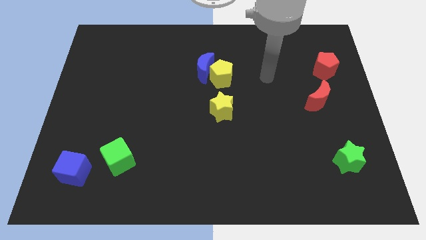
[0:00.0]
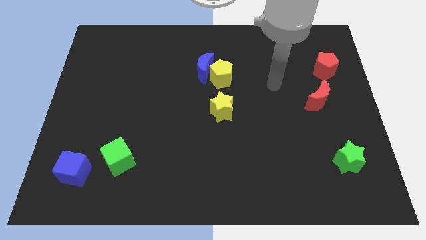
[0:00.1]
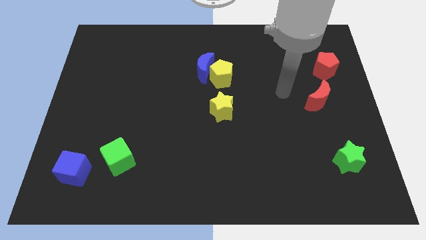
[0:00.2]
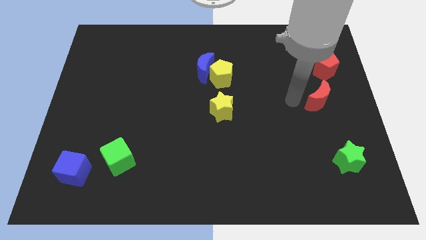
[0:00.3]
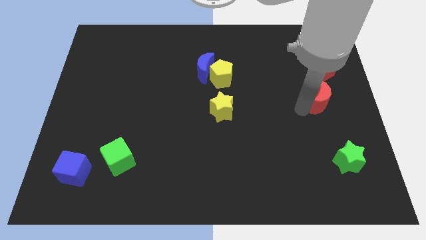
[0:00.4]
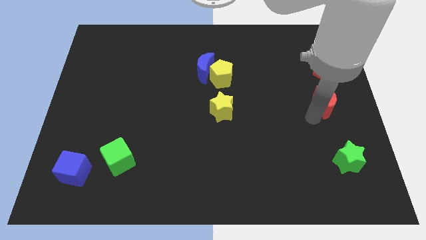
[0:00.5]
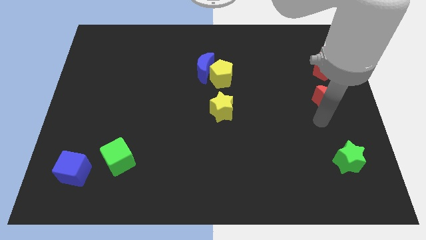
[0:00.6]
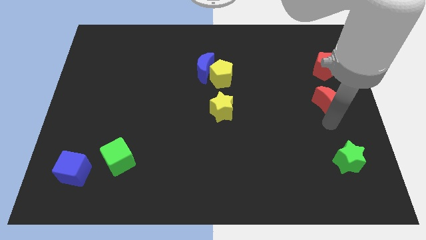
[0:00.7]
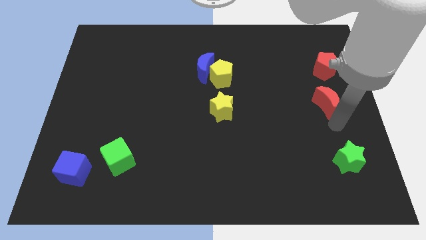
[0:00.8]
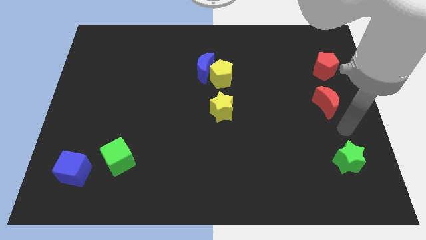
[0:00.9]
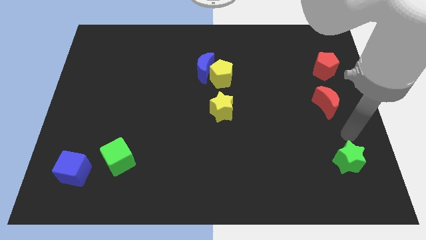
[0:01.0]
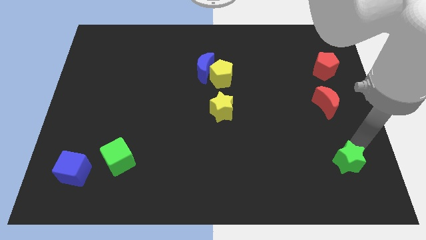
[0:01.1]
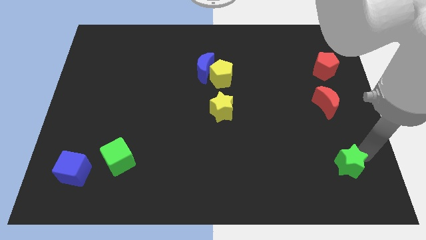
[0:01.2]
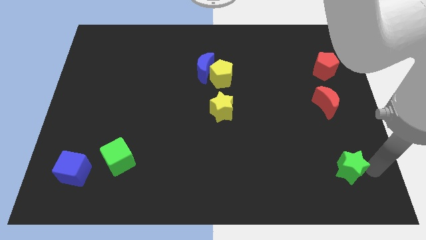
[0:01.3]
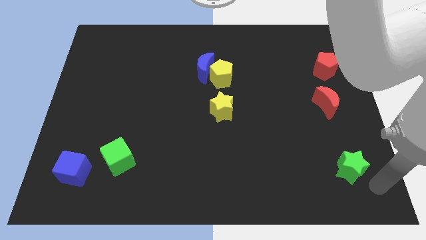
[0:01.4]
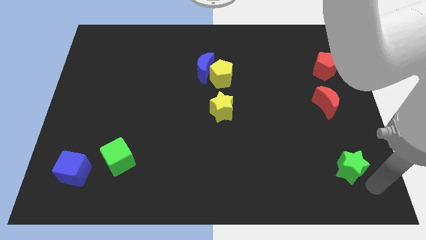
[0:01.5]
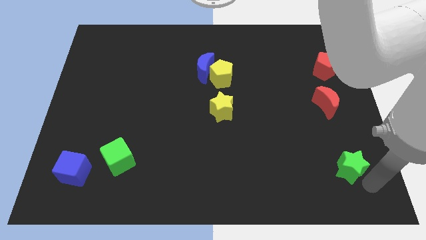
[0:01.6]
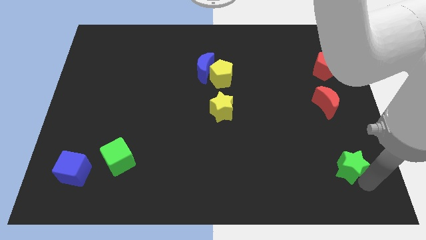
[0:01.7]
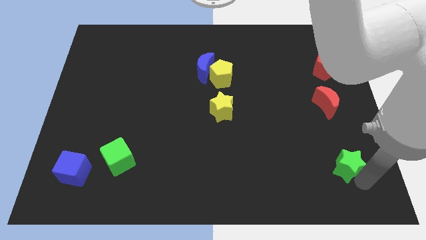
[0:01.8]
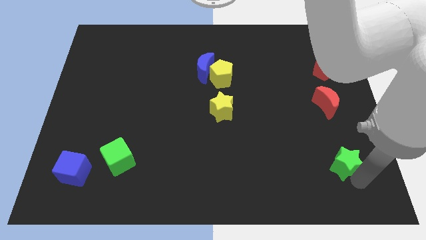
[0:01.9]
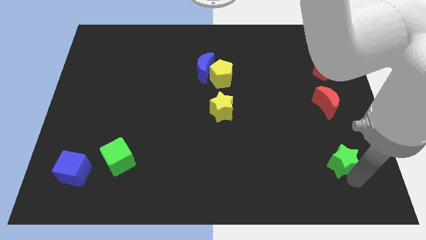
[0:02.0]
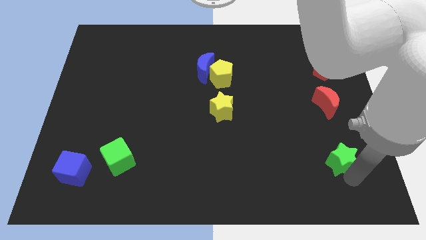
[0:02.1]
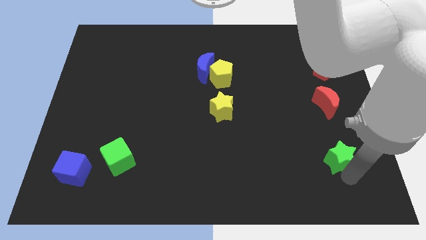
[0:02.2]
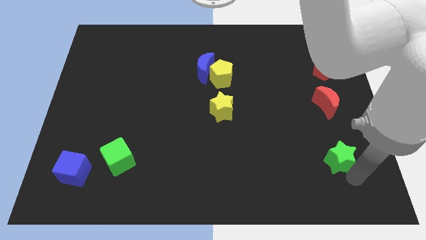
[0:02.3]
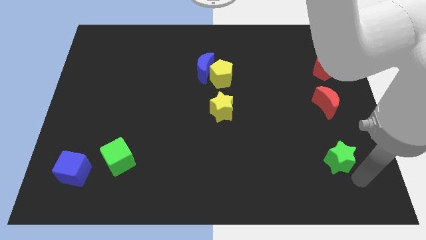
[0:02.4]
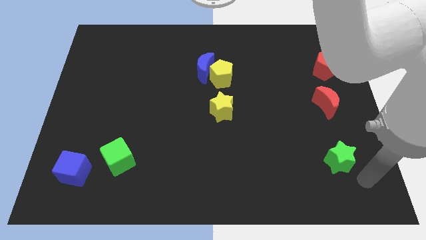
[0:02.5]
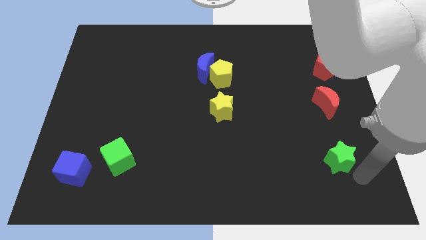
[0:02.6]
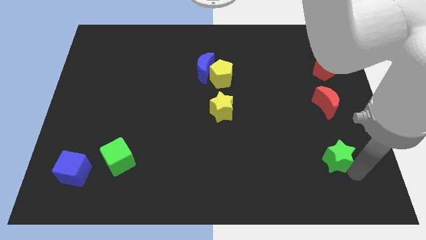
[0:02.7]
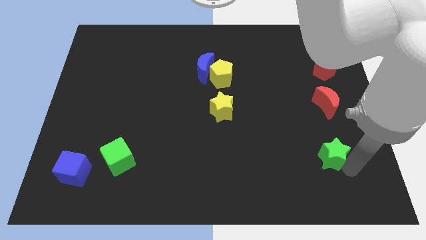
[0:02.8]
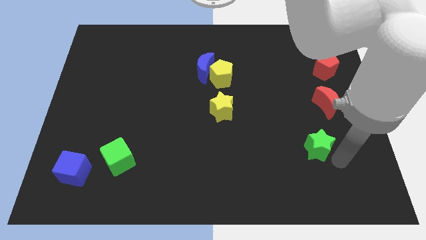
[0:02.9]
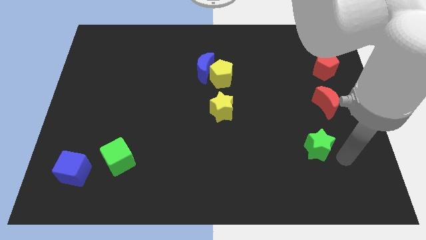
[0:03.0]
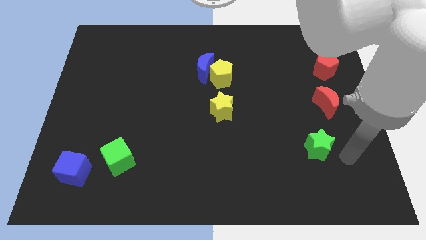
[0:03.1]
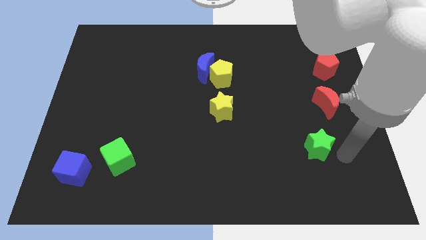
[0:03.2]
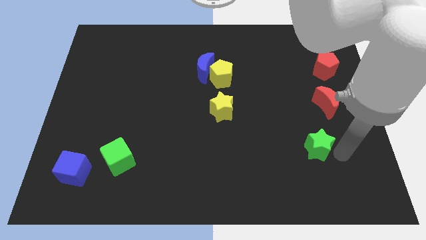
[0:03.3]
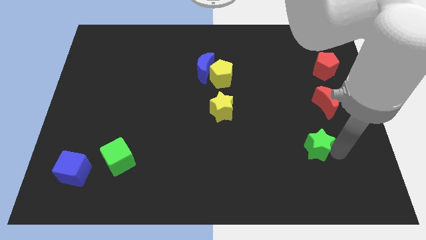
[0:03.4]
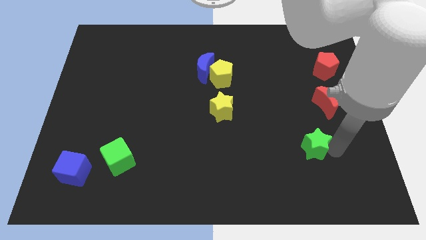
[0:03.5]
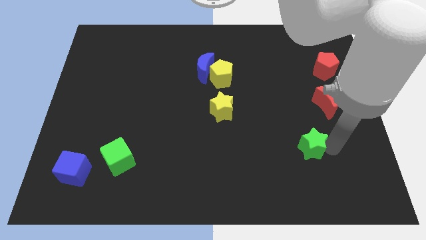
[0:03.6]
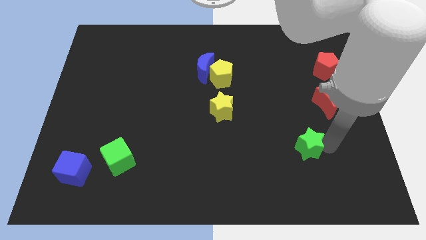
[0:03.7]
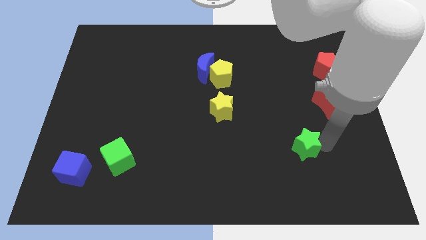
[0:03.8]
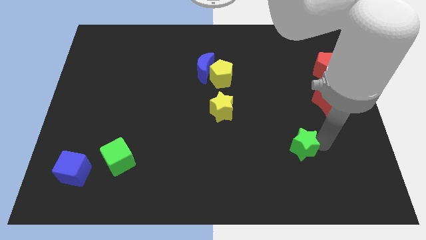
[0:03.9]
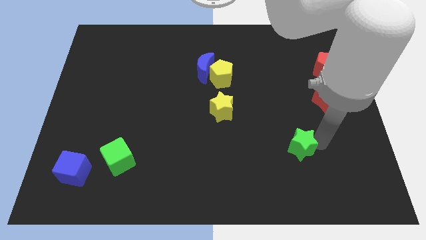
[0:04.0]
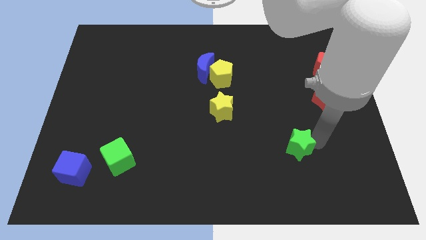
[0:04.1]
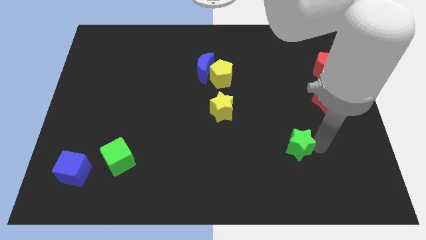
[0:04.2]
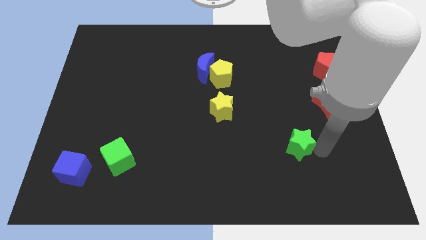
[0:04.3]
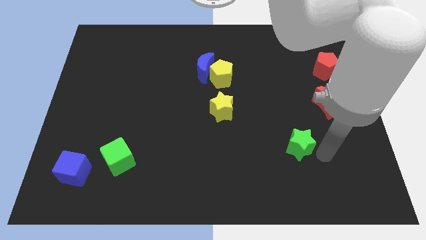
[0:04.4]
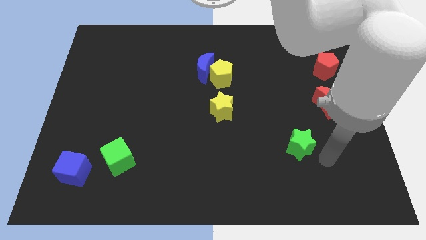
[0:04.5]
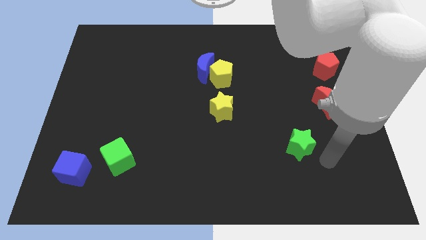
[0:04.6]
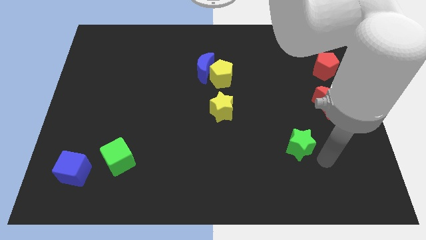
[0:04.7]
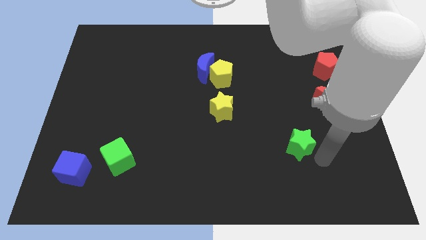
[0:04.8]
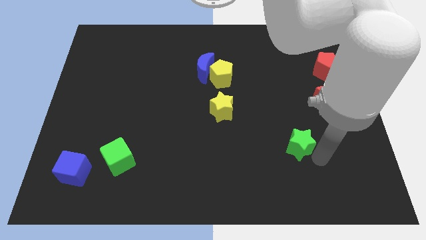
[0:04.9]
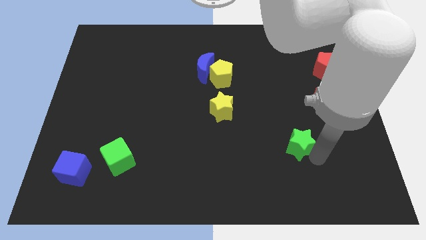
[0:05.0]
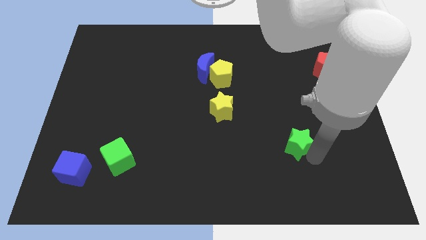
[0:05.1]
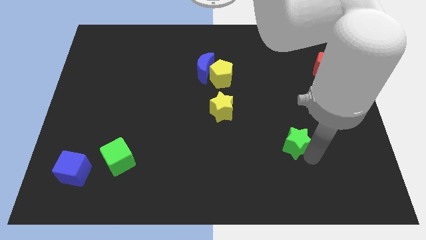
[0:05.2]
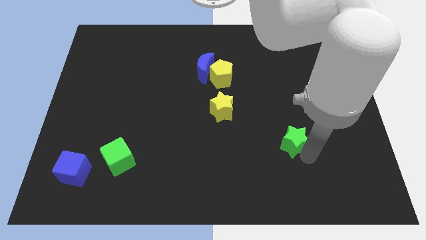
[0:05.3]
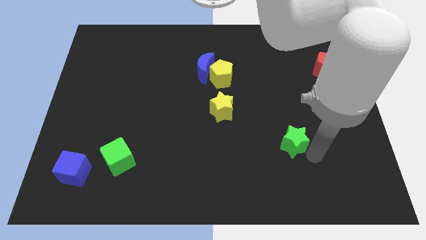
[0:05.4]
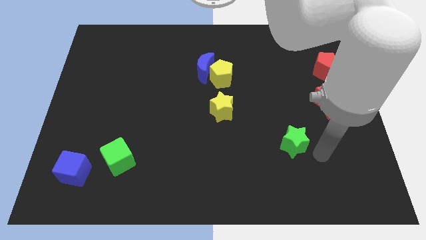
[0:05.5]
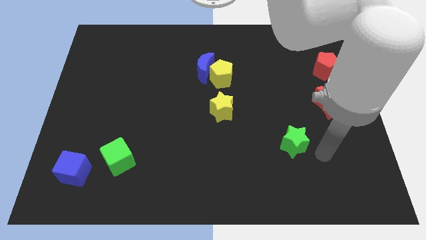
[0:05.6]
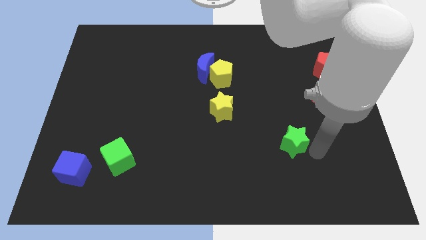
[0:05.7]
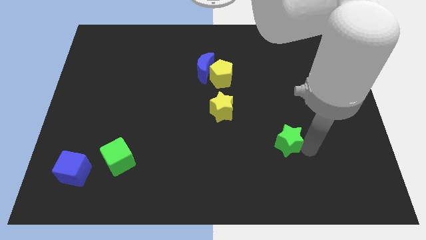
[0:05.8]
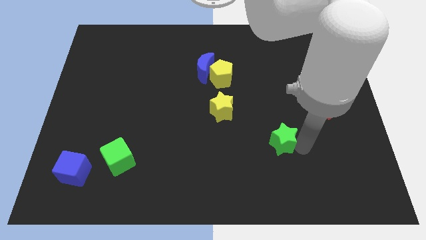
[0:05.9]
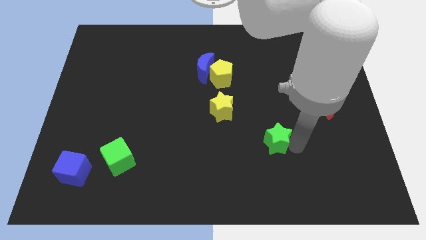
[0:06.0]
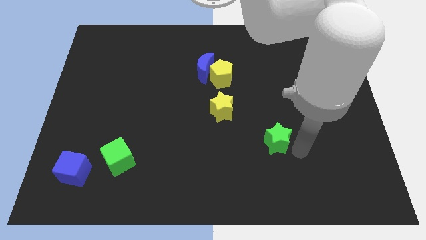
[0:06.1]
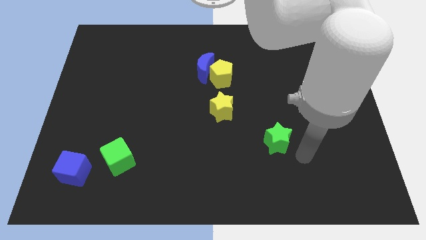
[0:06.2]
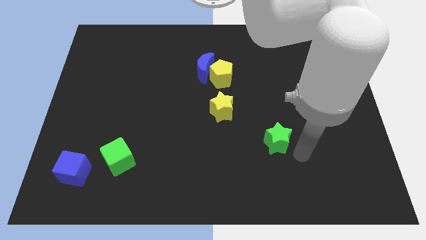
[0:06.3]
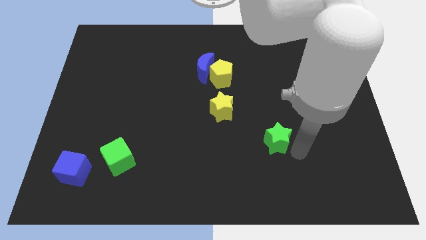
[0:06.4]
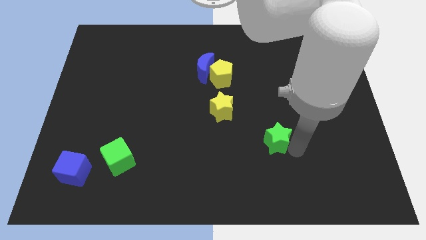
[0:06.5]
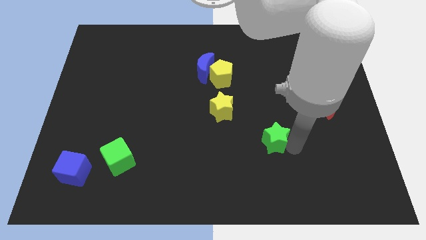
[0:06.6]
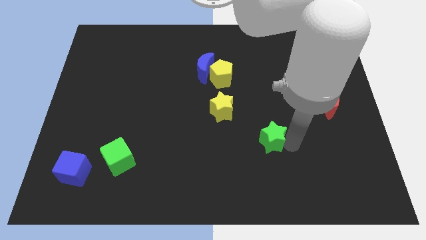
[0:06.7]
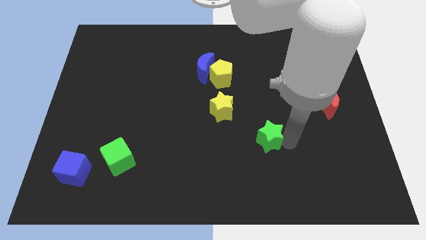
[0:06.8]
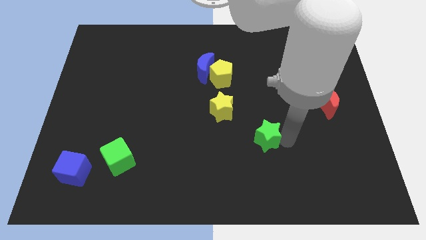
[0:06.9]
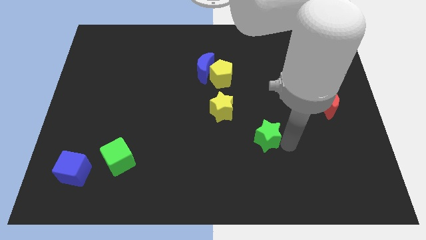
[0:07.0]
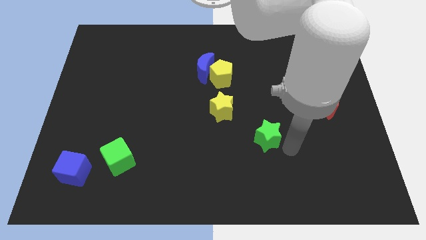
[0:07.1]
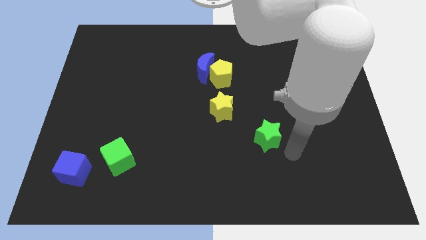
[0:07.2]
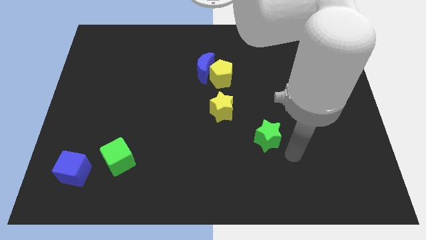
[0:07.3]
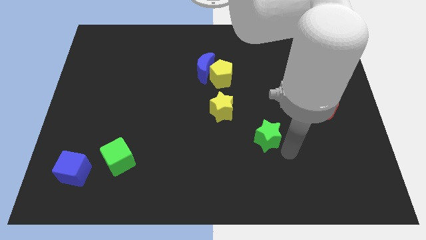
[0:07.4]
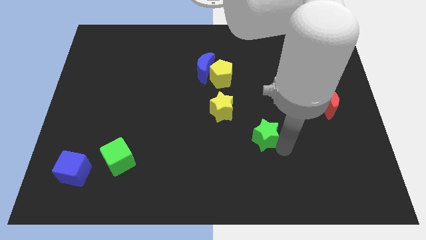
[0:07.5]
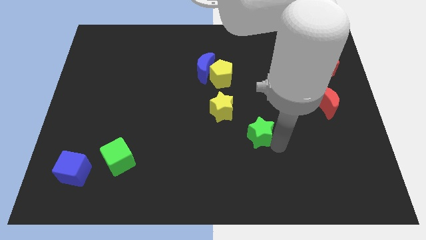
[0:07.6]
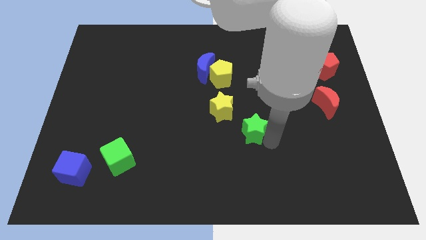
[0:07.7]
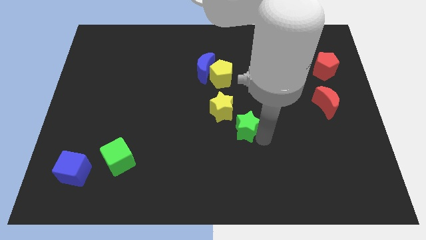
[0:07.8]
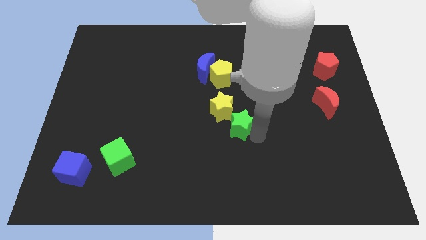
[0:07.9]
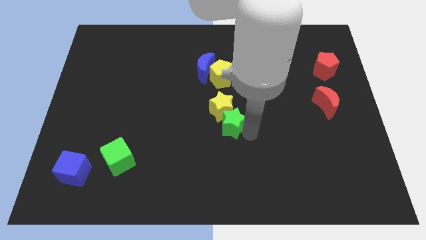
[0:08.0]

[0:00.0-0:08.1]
push the green star to the yellow star
